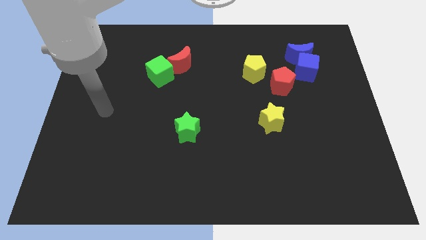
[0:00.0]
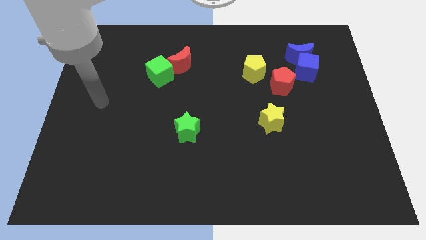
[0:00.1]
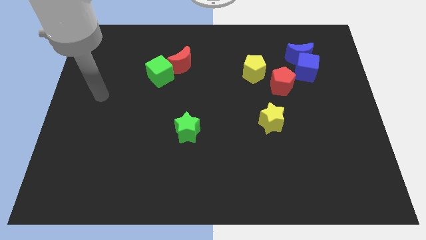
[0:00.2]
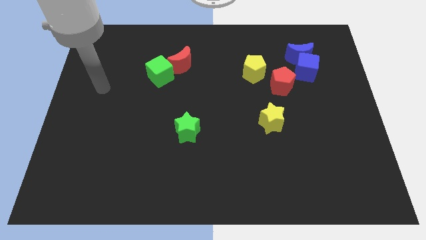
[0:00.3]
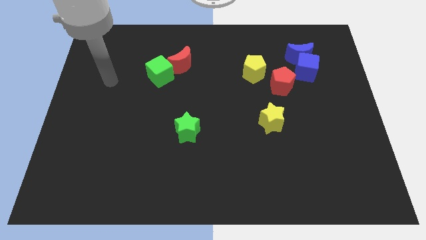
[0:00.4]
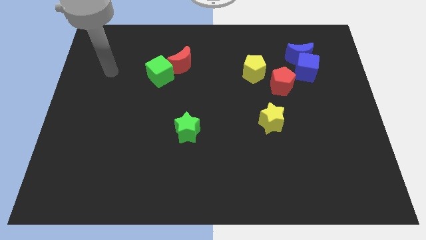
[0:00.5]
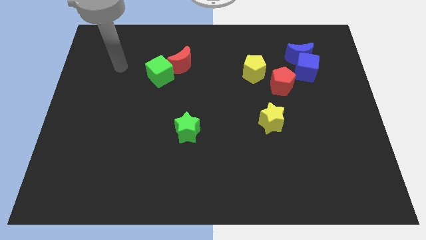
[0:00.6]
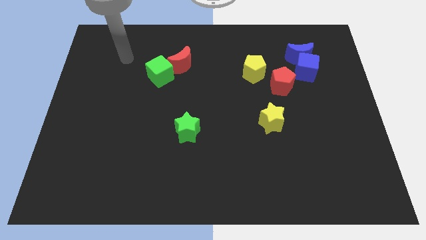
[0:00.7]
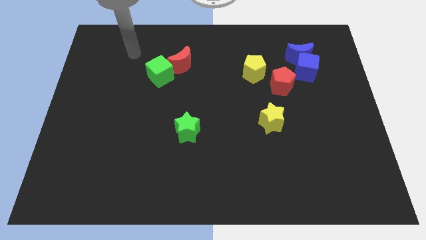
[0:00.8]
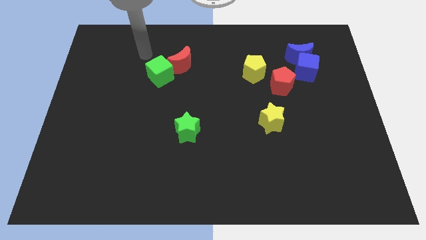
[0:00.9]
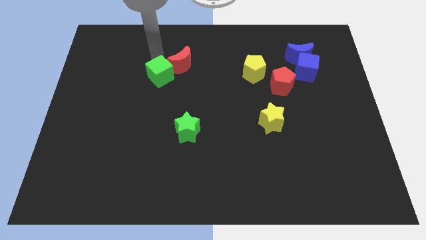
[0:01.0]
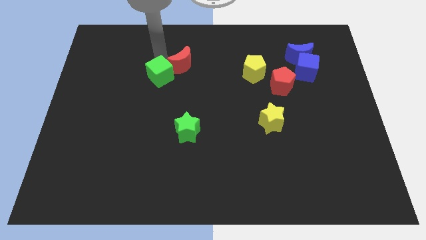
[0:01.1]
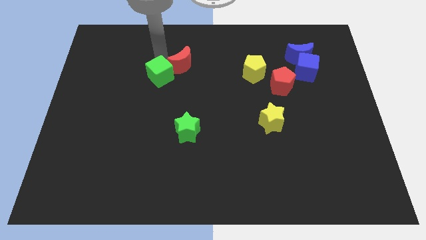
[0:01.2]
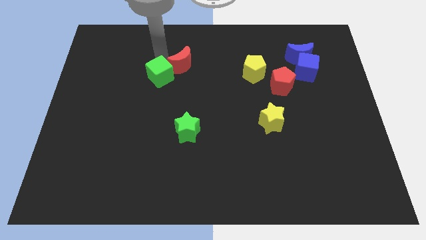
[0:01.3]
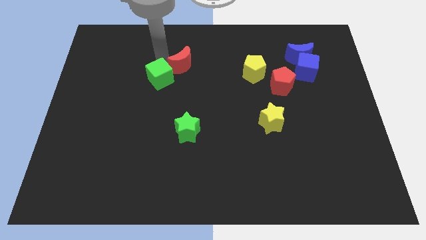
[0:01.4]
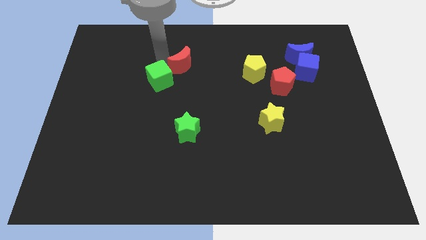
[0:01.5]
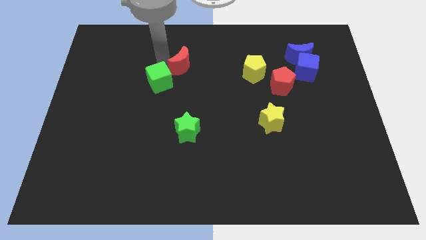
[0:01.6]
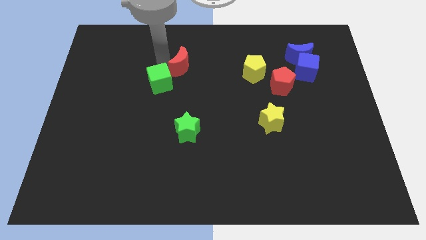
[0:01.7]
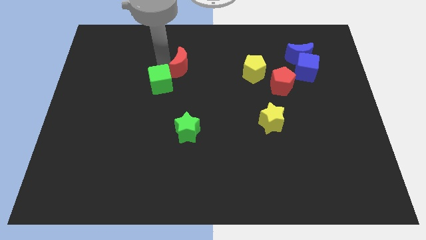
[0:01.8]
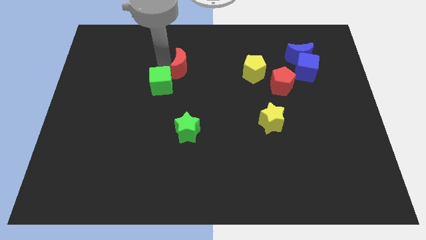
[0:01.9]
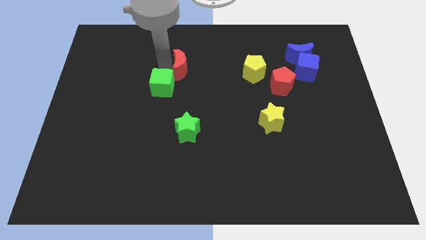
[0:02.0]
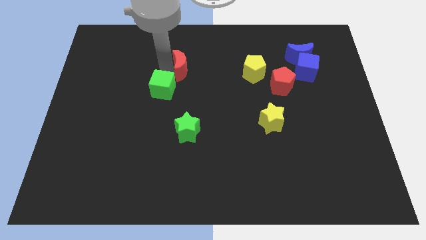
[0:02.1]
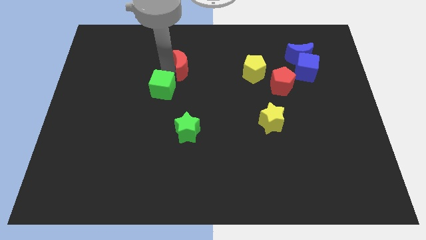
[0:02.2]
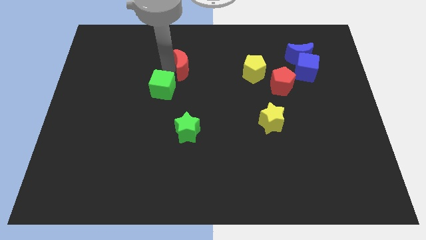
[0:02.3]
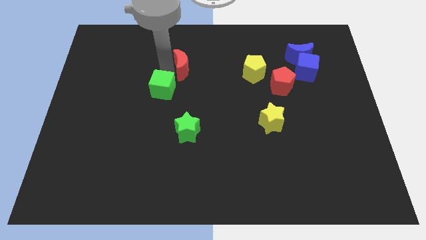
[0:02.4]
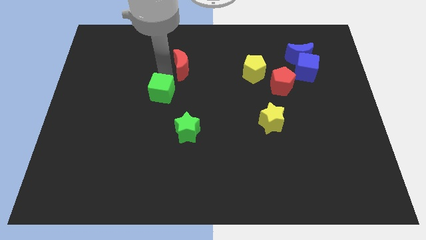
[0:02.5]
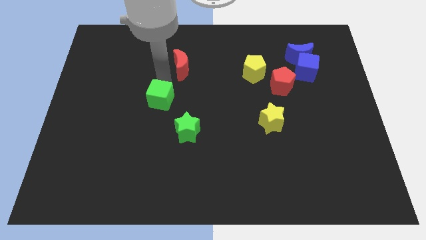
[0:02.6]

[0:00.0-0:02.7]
push the green cube a little downwards

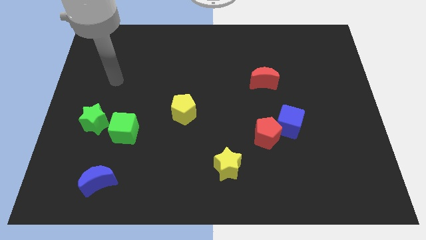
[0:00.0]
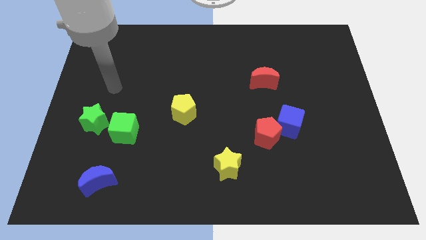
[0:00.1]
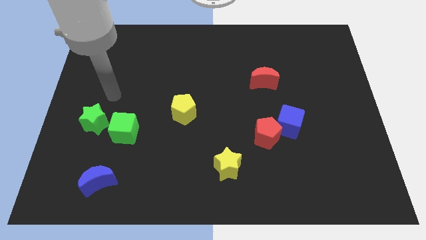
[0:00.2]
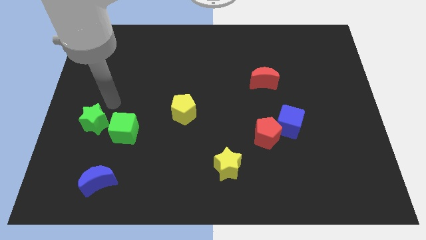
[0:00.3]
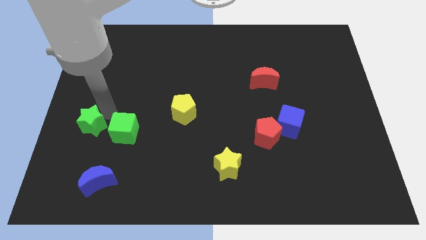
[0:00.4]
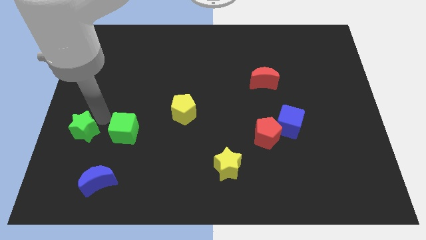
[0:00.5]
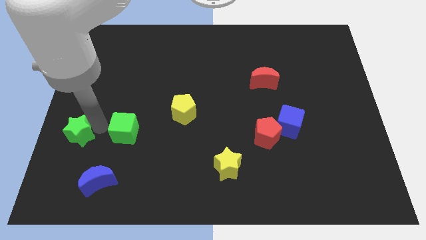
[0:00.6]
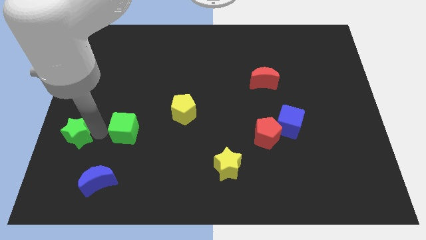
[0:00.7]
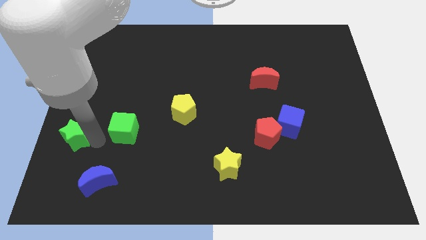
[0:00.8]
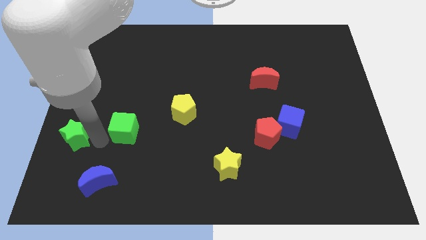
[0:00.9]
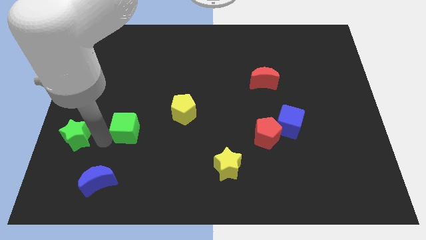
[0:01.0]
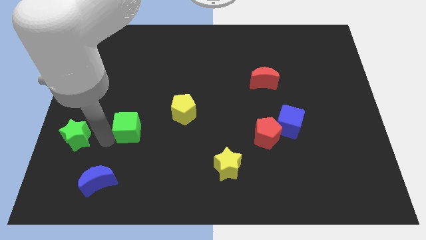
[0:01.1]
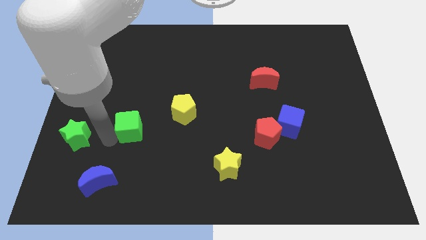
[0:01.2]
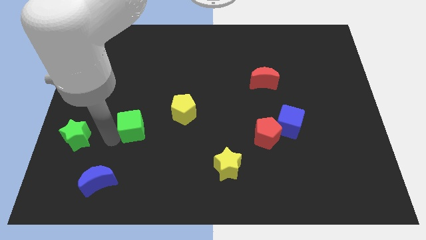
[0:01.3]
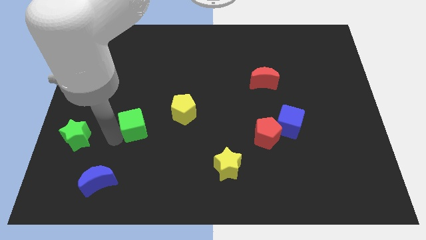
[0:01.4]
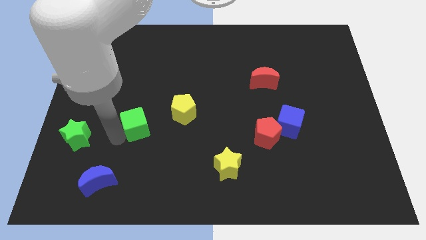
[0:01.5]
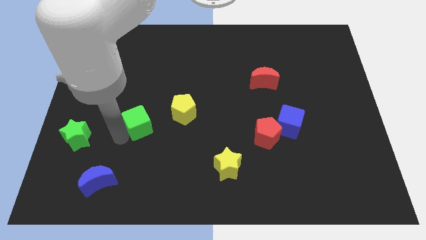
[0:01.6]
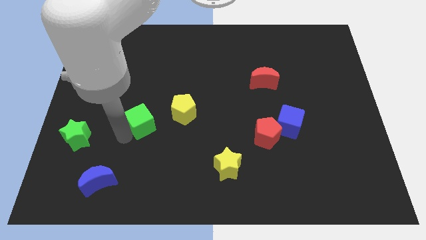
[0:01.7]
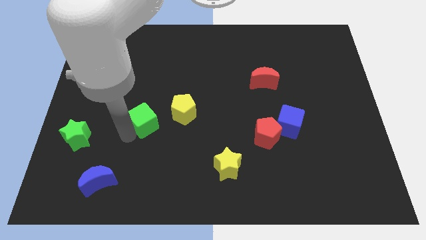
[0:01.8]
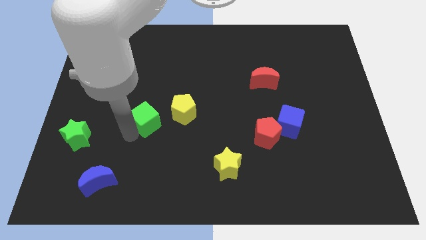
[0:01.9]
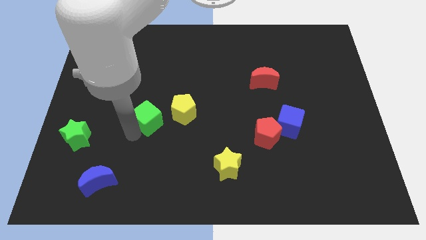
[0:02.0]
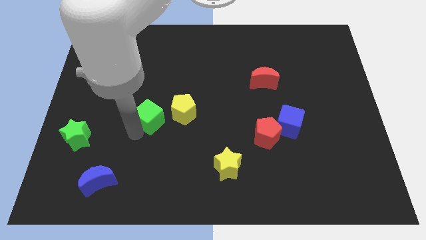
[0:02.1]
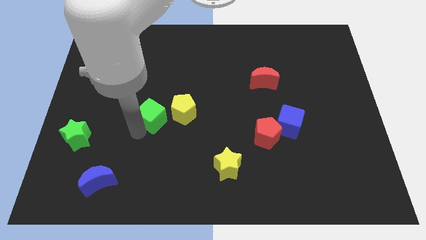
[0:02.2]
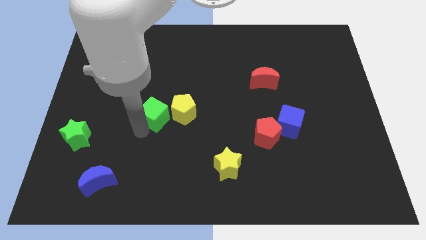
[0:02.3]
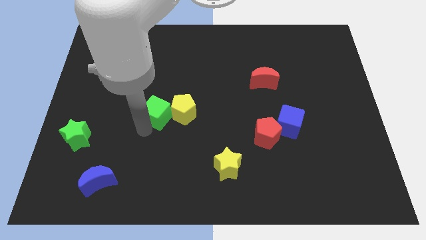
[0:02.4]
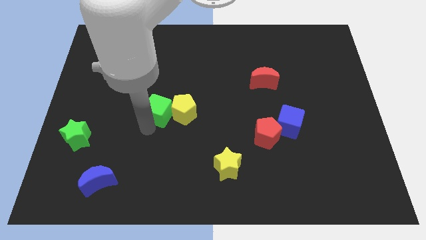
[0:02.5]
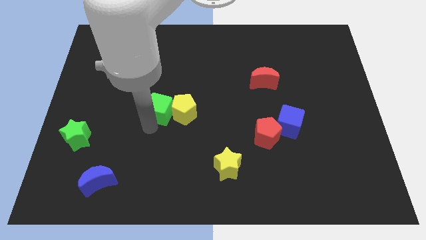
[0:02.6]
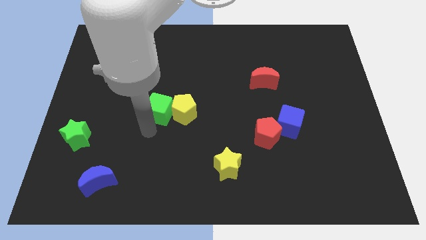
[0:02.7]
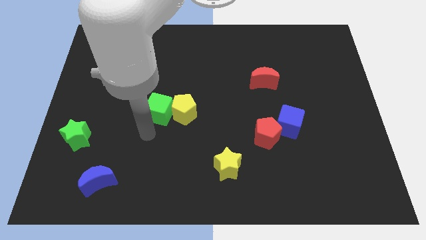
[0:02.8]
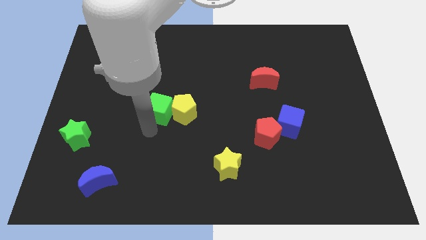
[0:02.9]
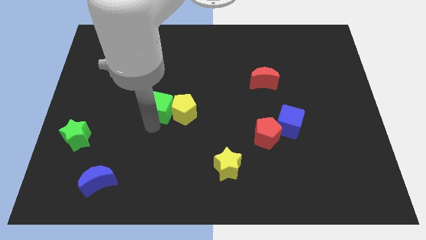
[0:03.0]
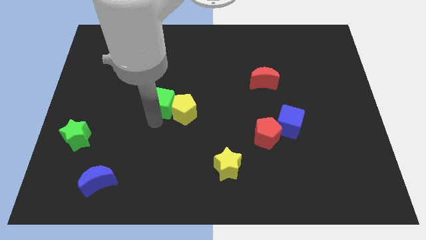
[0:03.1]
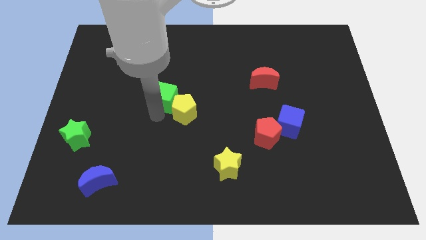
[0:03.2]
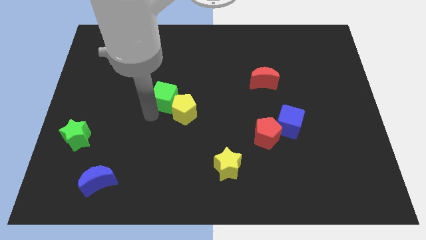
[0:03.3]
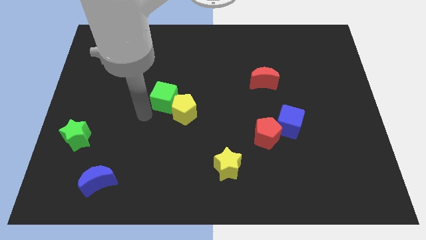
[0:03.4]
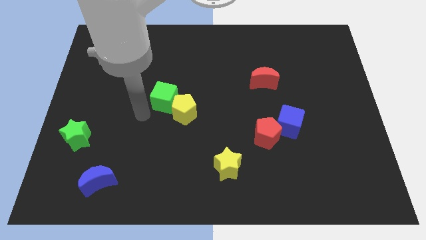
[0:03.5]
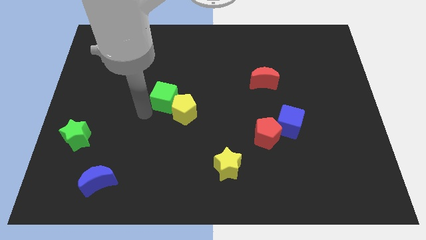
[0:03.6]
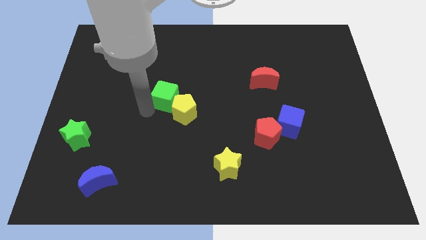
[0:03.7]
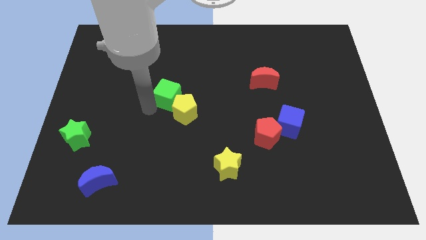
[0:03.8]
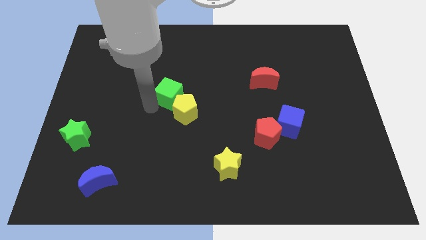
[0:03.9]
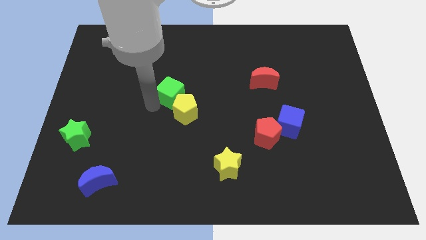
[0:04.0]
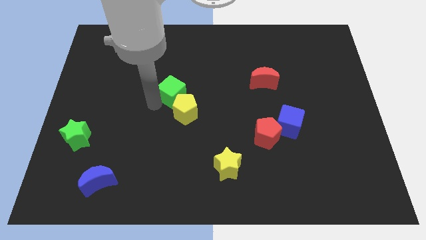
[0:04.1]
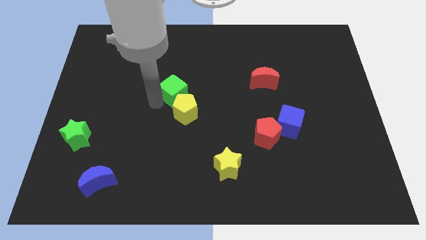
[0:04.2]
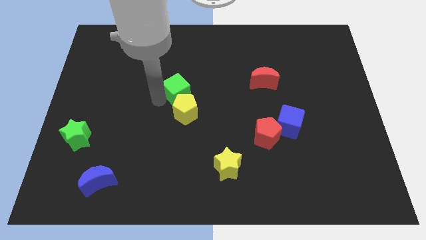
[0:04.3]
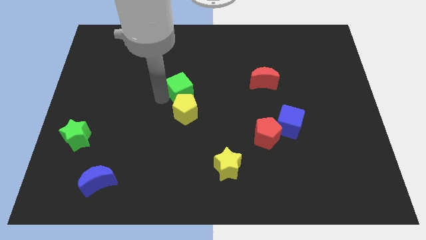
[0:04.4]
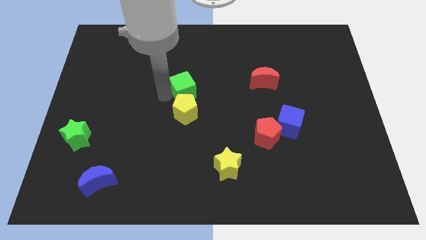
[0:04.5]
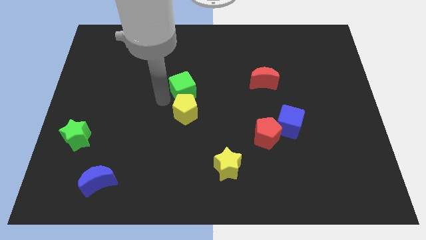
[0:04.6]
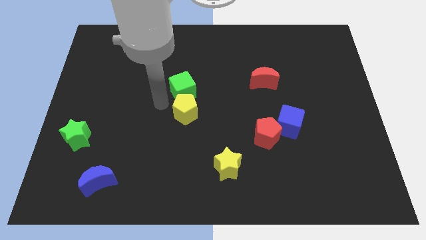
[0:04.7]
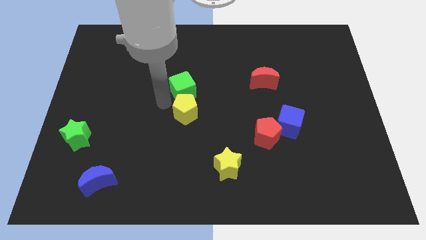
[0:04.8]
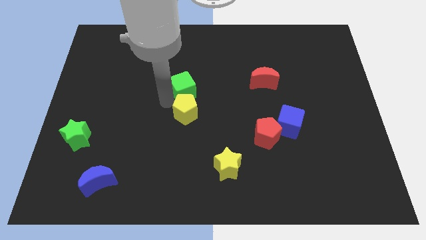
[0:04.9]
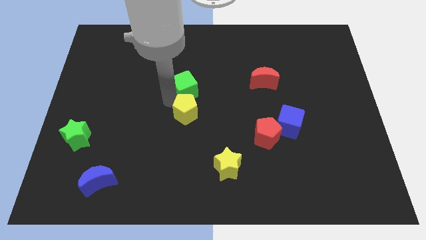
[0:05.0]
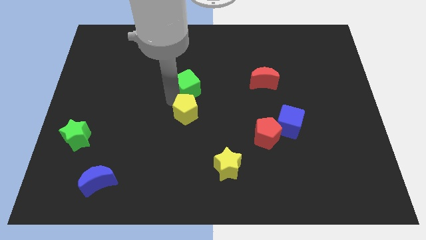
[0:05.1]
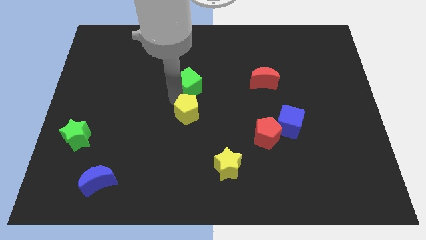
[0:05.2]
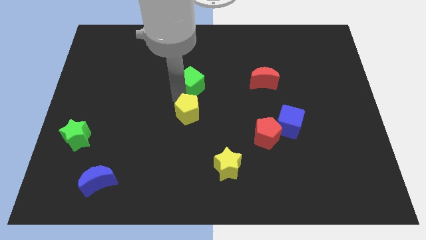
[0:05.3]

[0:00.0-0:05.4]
move the green cube diagonally upwards and right
